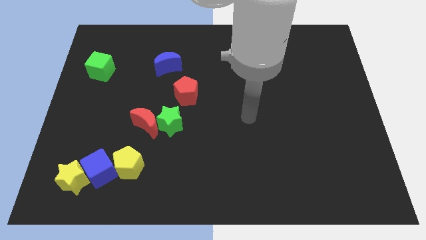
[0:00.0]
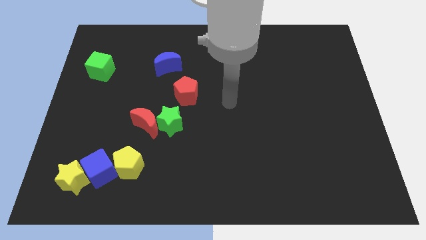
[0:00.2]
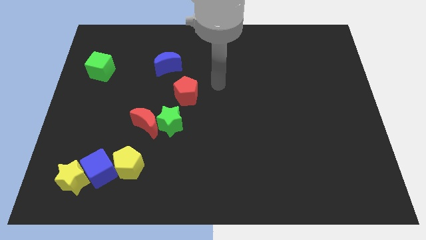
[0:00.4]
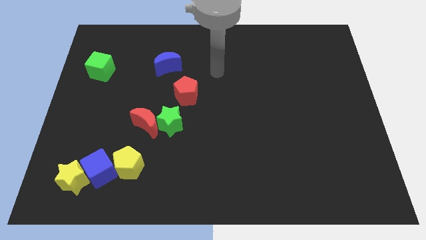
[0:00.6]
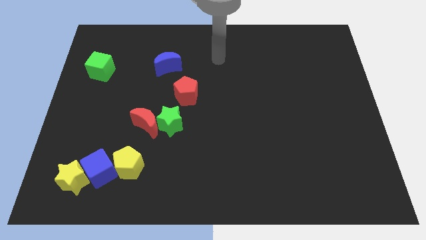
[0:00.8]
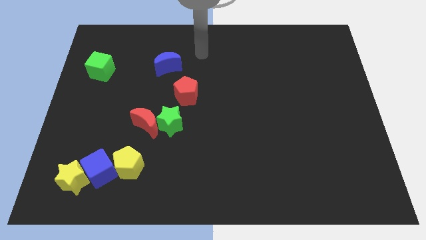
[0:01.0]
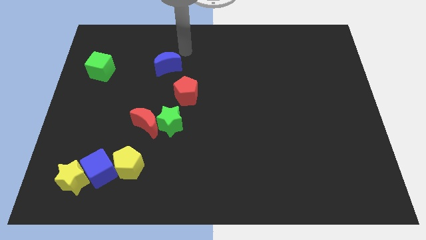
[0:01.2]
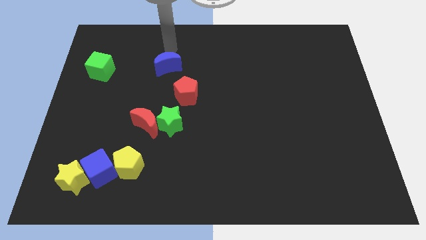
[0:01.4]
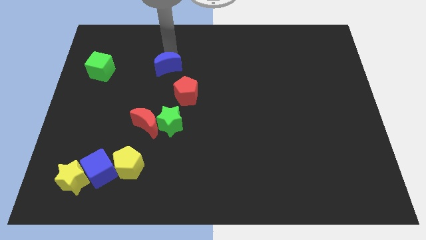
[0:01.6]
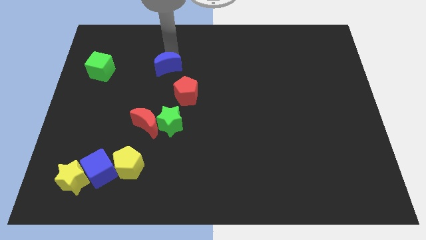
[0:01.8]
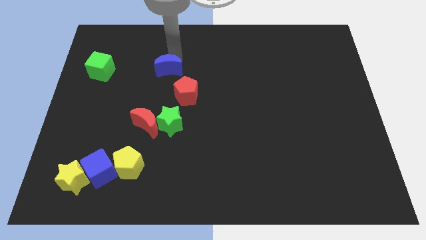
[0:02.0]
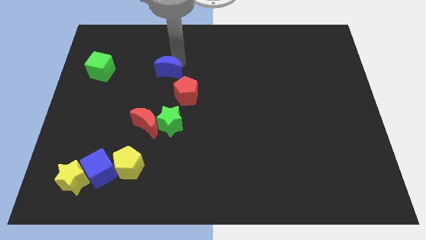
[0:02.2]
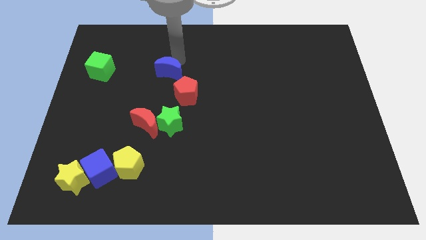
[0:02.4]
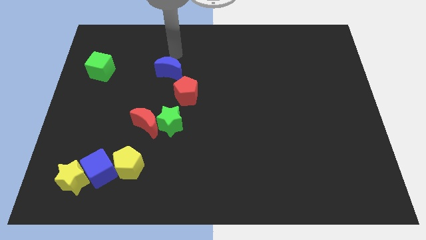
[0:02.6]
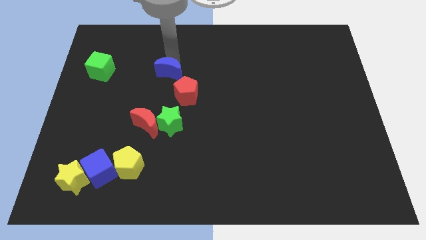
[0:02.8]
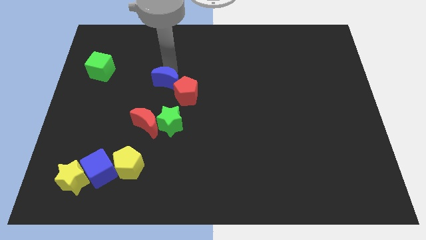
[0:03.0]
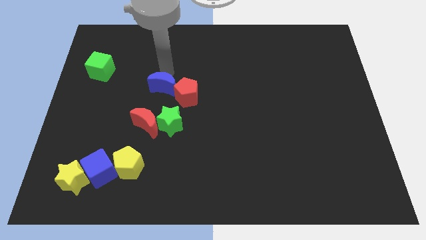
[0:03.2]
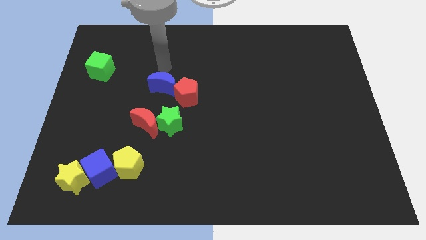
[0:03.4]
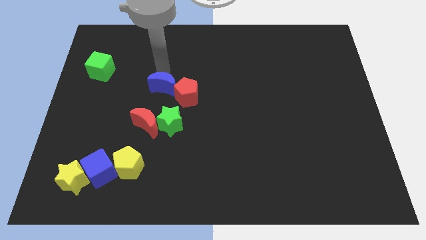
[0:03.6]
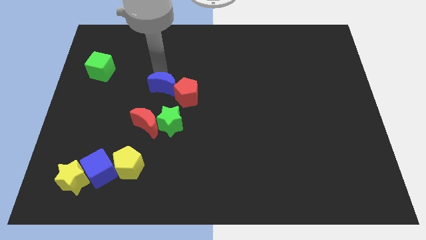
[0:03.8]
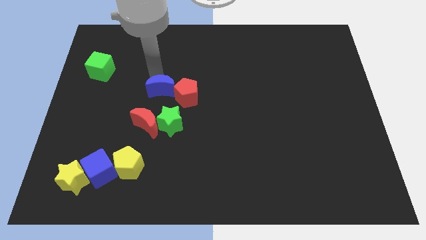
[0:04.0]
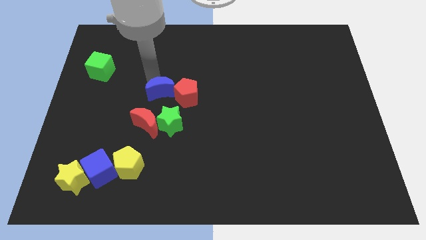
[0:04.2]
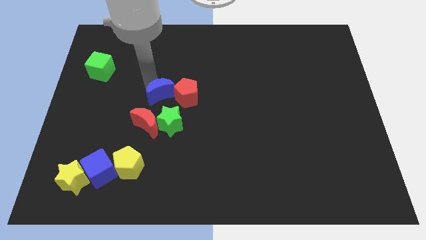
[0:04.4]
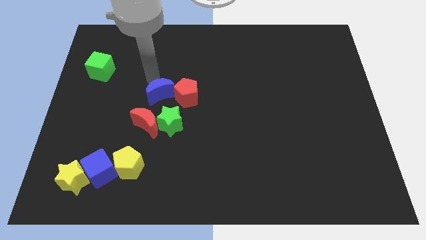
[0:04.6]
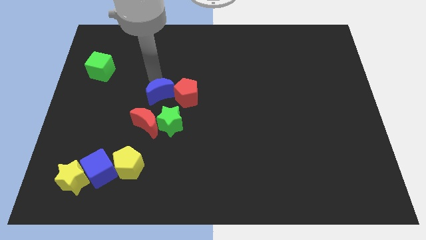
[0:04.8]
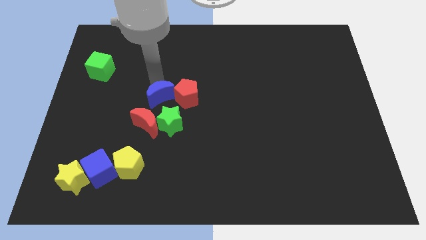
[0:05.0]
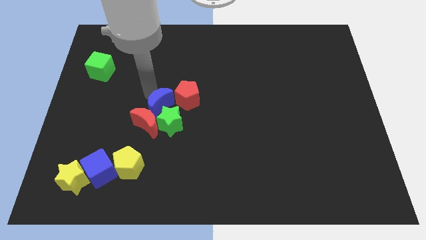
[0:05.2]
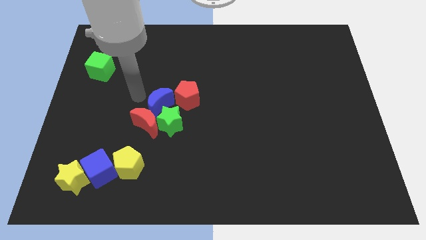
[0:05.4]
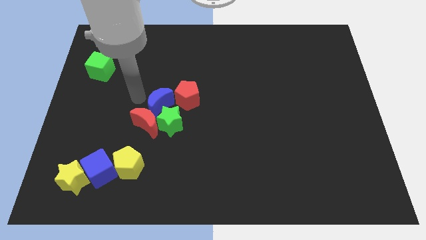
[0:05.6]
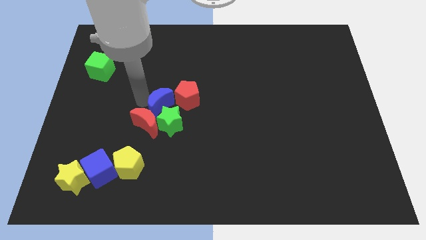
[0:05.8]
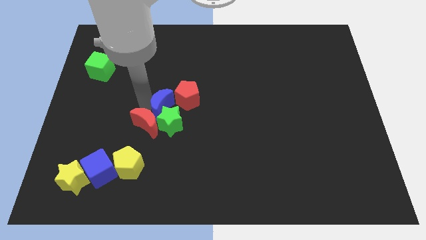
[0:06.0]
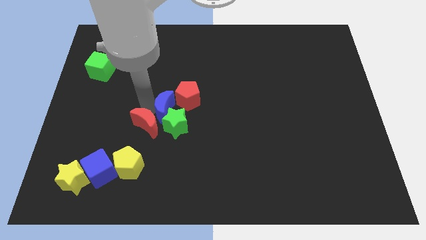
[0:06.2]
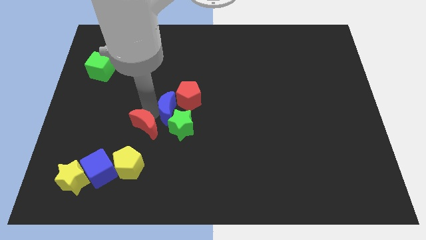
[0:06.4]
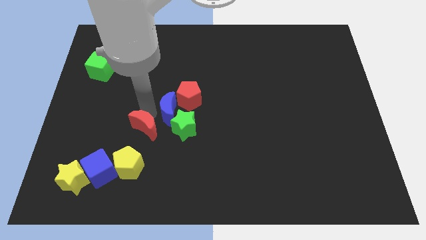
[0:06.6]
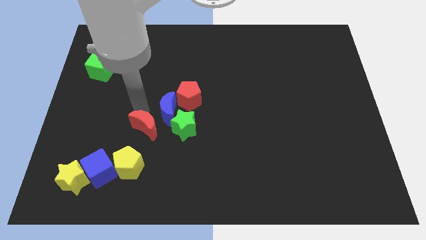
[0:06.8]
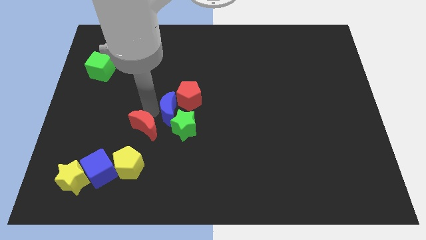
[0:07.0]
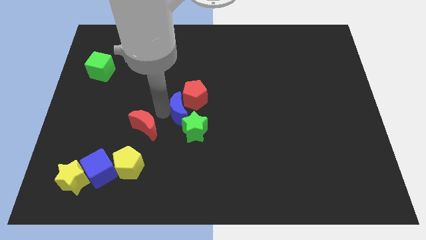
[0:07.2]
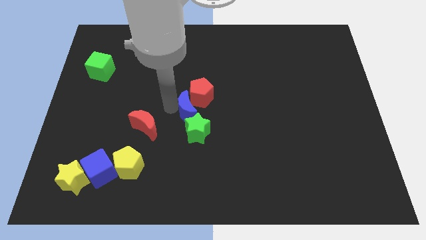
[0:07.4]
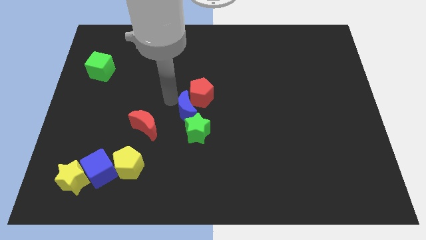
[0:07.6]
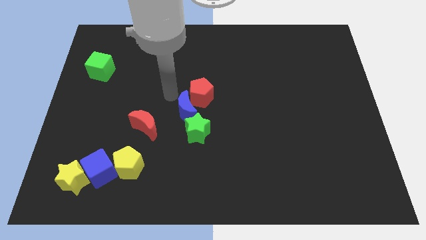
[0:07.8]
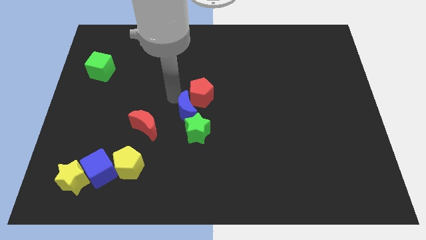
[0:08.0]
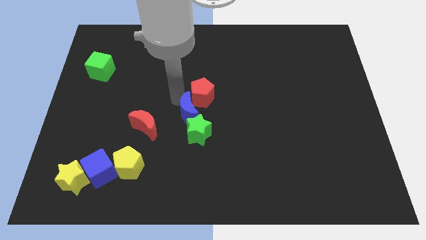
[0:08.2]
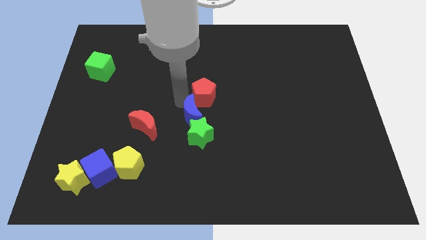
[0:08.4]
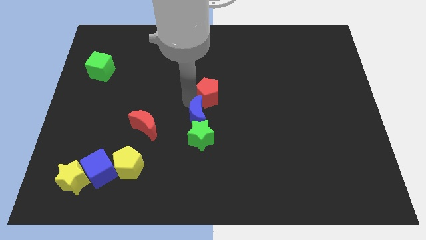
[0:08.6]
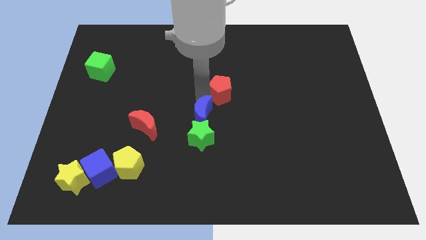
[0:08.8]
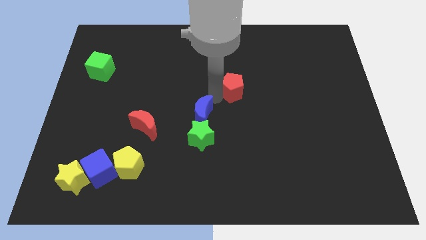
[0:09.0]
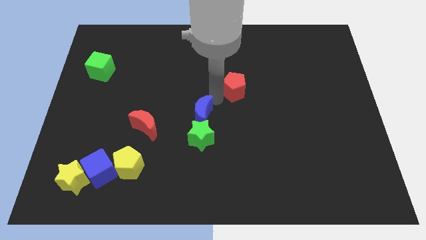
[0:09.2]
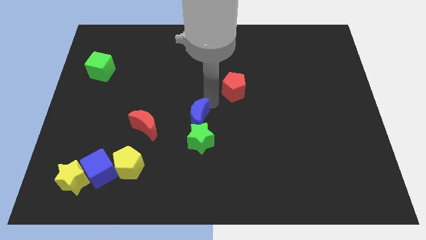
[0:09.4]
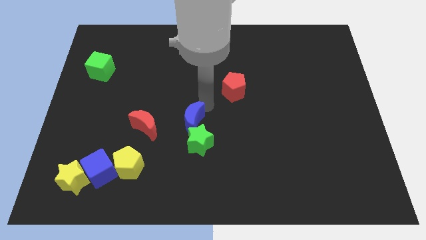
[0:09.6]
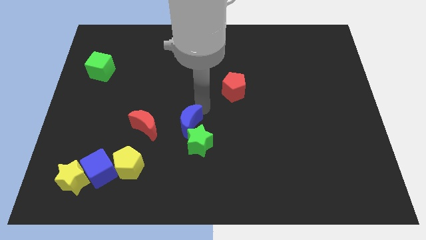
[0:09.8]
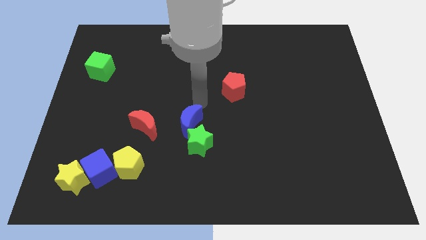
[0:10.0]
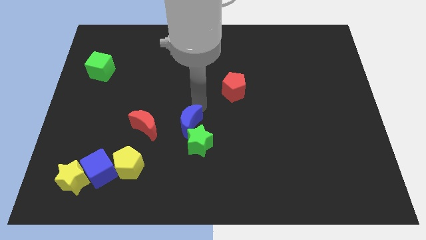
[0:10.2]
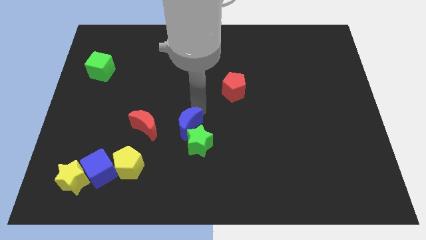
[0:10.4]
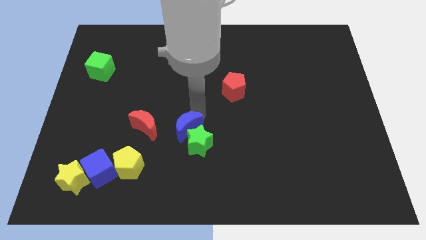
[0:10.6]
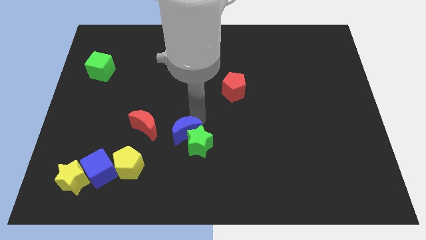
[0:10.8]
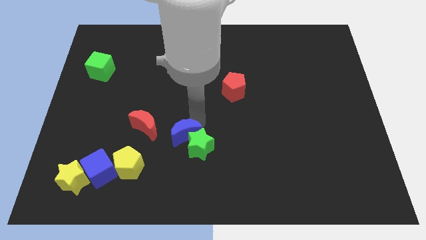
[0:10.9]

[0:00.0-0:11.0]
push the blue moon downwards

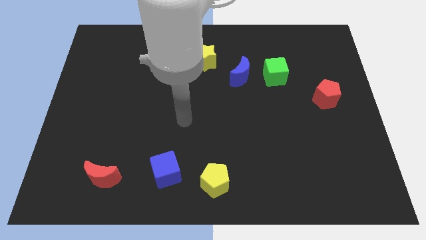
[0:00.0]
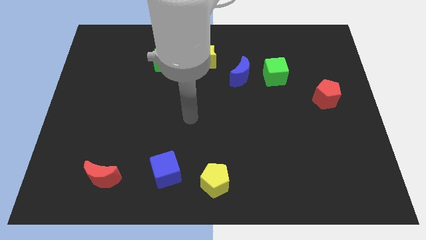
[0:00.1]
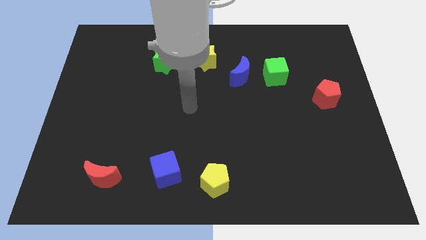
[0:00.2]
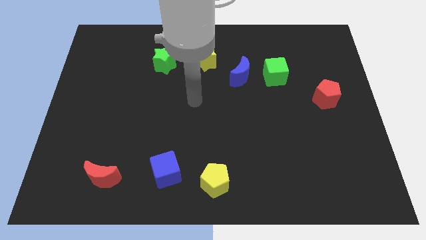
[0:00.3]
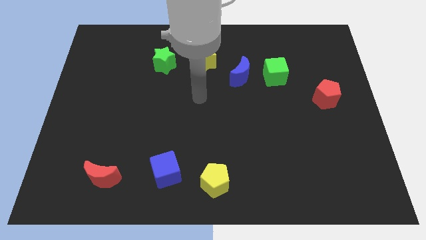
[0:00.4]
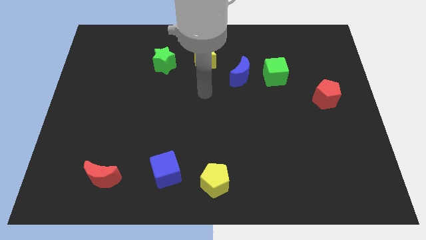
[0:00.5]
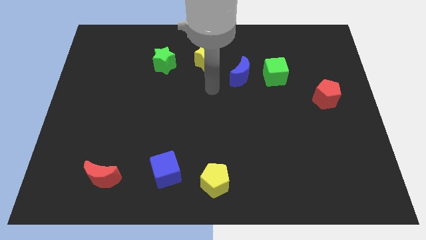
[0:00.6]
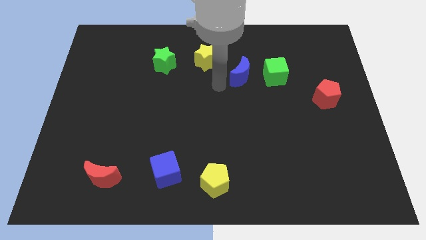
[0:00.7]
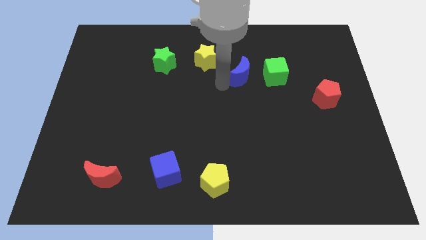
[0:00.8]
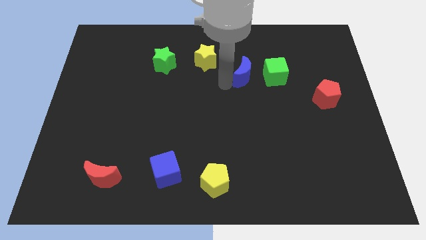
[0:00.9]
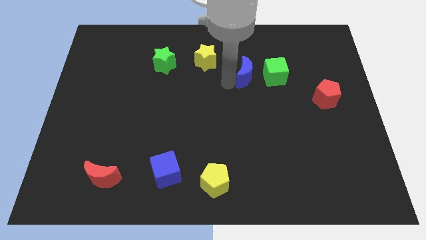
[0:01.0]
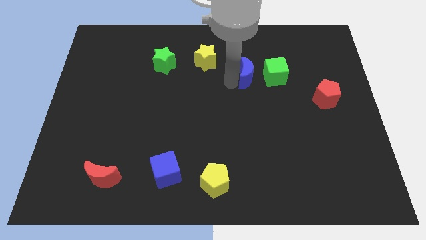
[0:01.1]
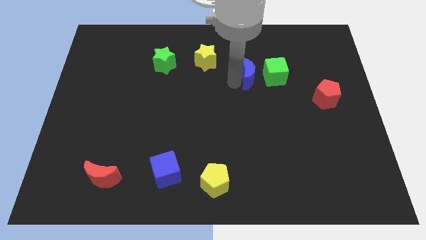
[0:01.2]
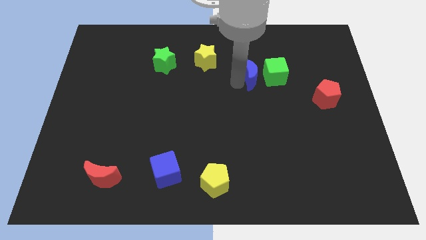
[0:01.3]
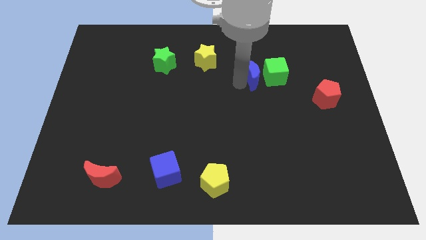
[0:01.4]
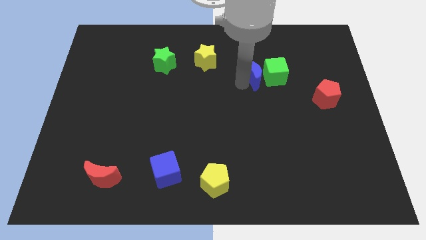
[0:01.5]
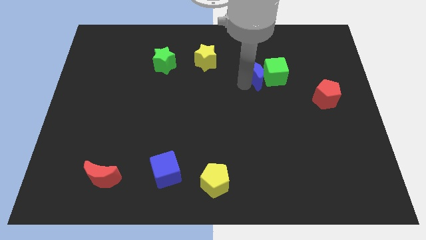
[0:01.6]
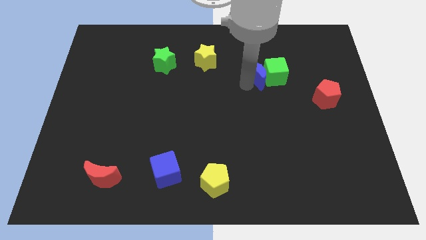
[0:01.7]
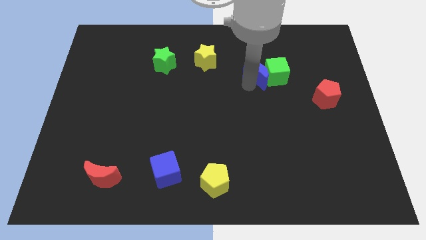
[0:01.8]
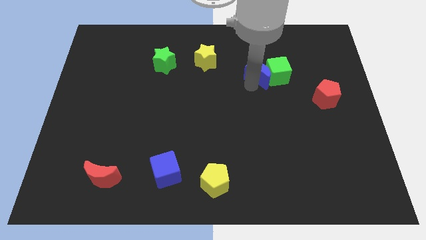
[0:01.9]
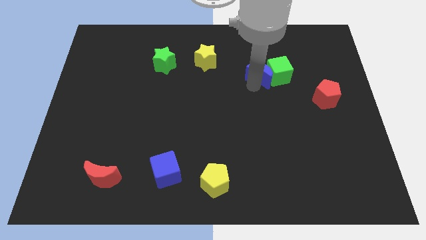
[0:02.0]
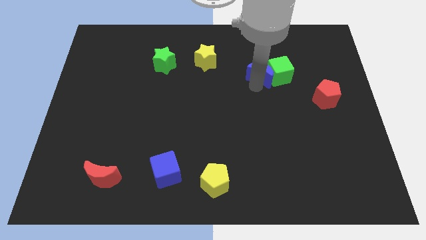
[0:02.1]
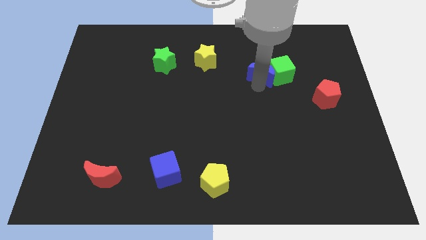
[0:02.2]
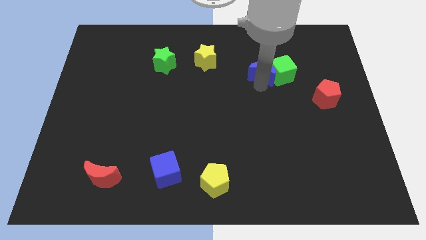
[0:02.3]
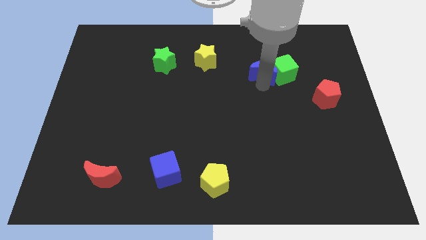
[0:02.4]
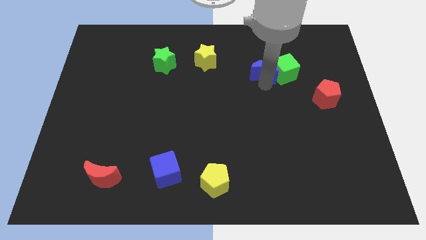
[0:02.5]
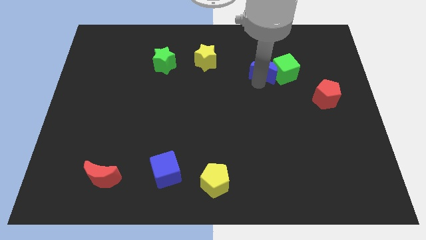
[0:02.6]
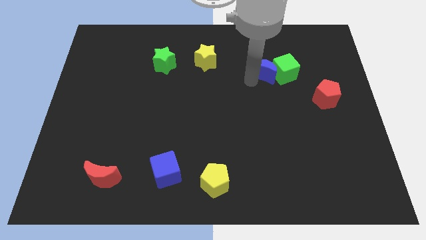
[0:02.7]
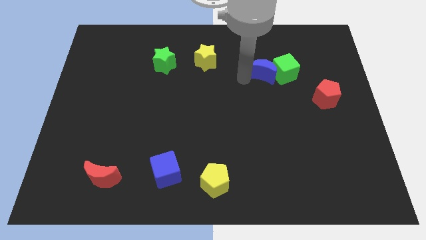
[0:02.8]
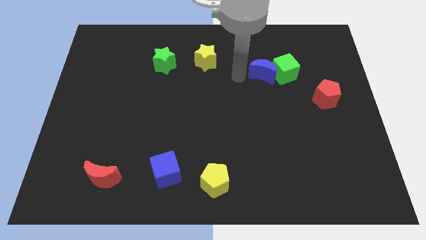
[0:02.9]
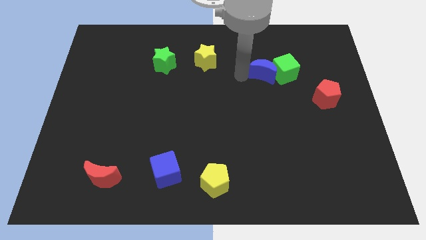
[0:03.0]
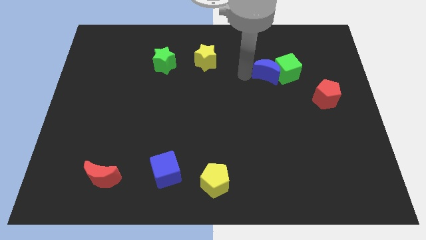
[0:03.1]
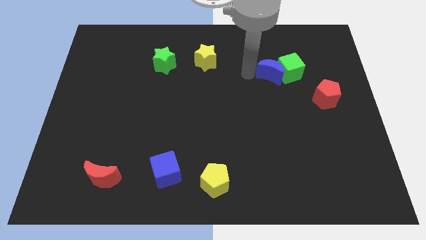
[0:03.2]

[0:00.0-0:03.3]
move the blue moon to the right somewhat
